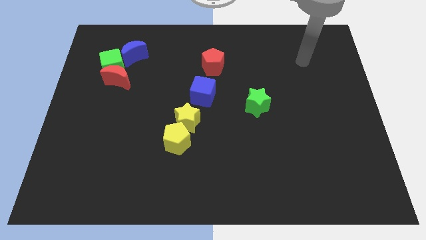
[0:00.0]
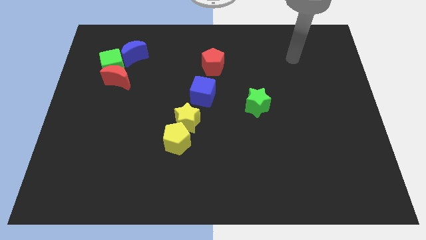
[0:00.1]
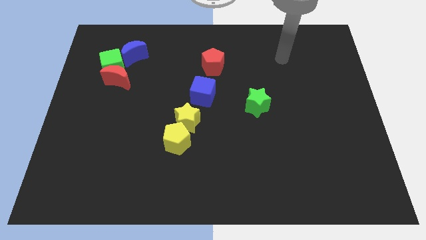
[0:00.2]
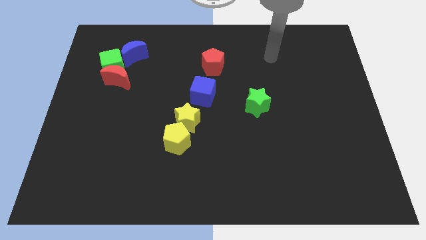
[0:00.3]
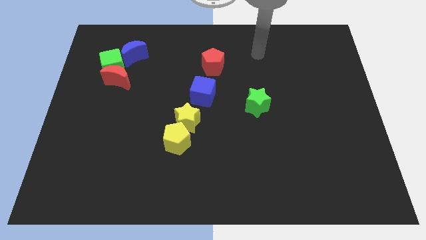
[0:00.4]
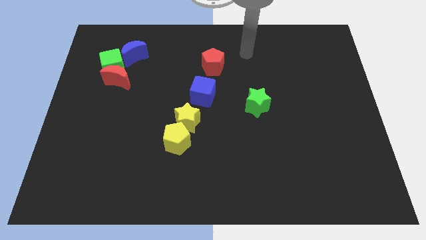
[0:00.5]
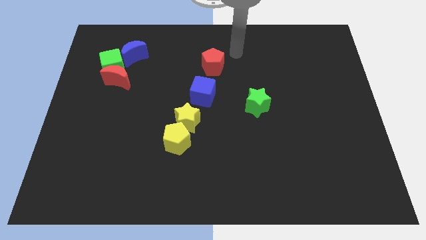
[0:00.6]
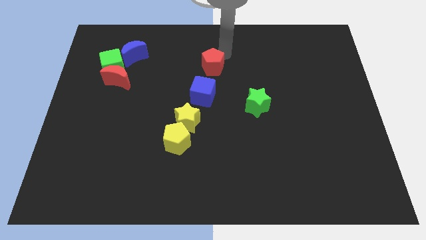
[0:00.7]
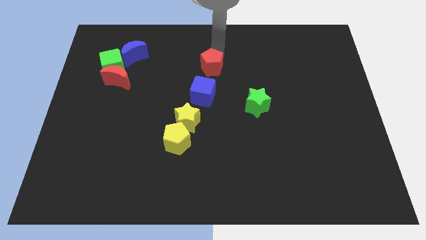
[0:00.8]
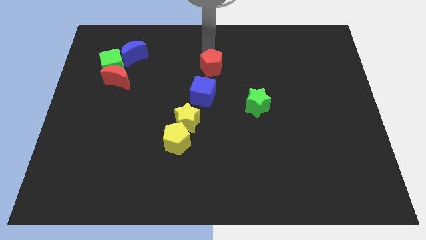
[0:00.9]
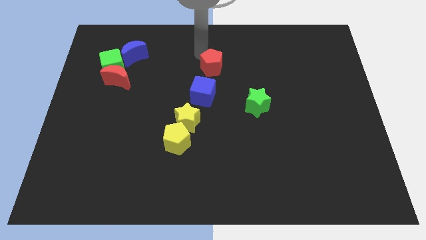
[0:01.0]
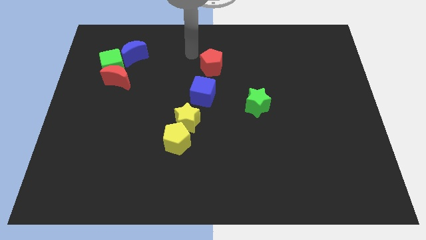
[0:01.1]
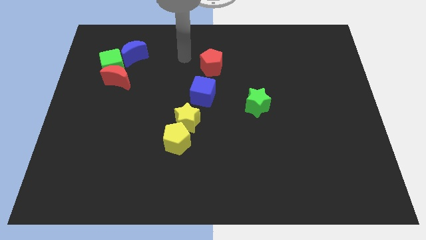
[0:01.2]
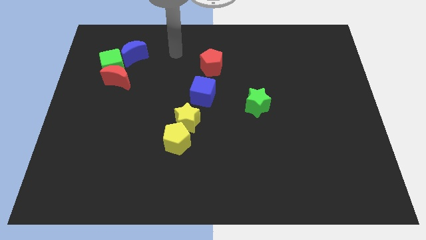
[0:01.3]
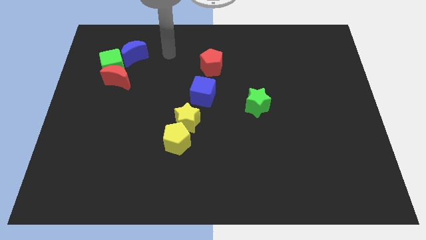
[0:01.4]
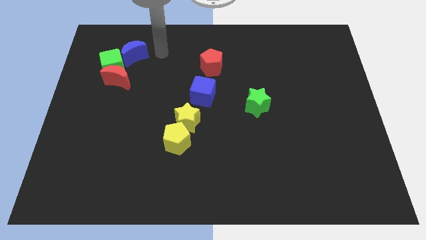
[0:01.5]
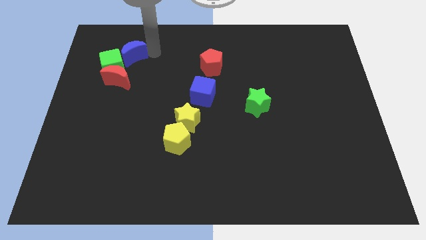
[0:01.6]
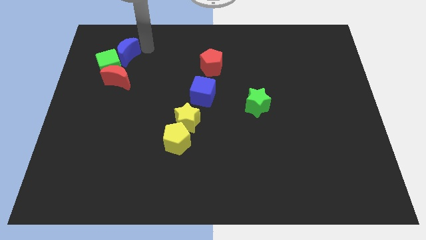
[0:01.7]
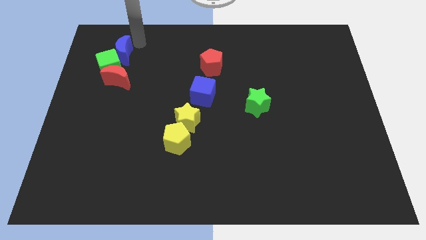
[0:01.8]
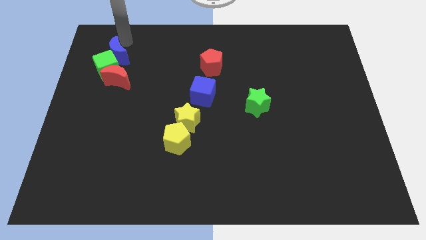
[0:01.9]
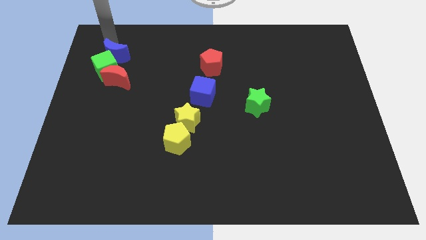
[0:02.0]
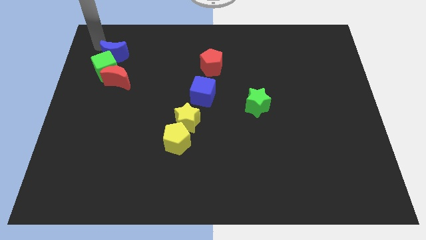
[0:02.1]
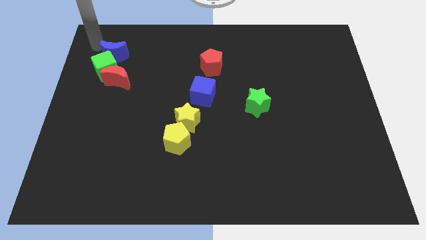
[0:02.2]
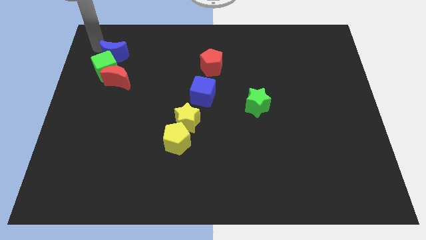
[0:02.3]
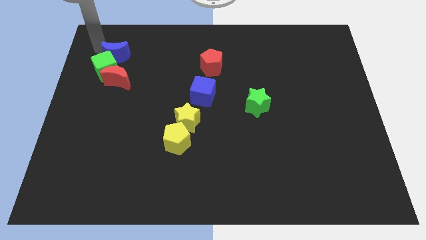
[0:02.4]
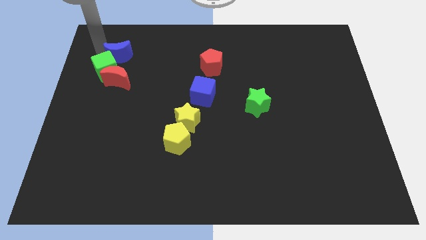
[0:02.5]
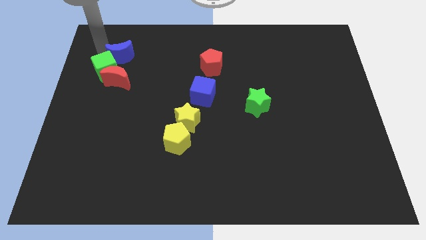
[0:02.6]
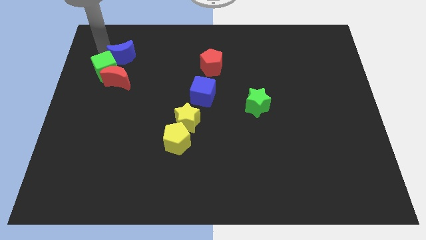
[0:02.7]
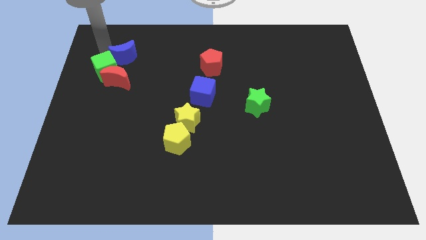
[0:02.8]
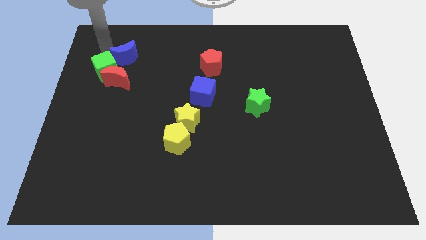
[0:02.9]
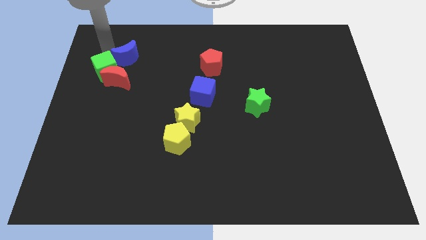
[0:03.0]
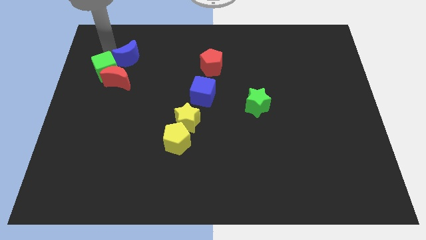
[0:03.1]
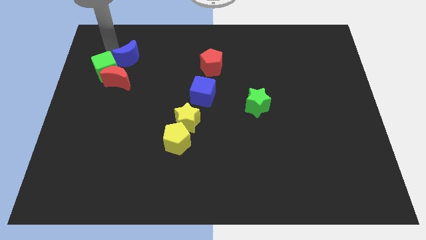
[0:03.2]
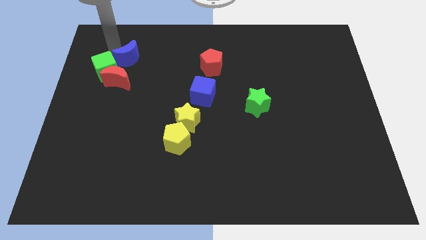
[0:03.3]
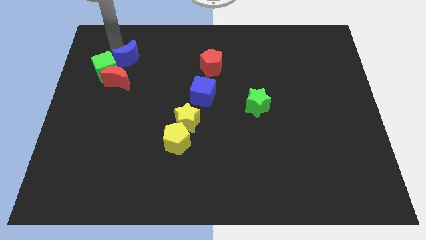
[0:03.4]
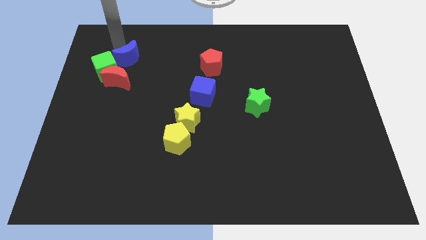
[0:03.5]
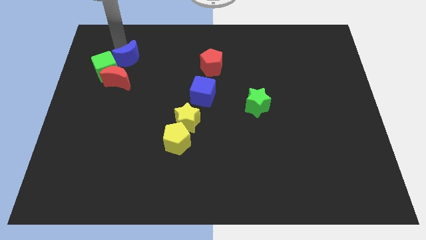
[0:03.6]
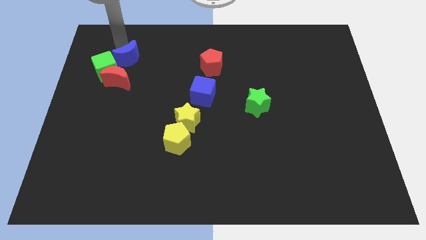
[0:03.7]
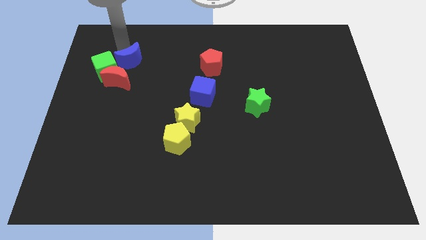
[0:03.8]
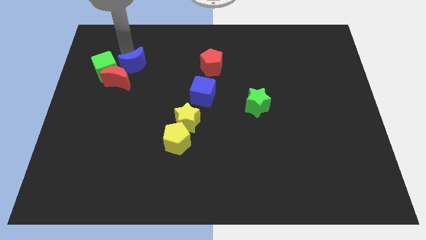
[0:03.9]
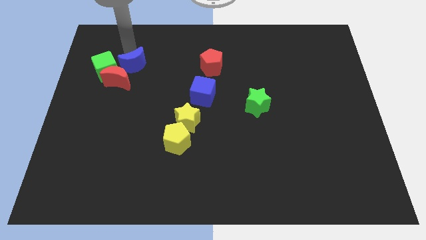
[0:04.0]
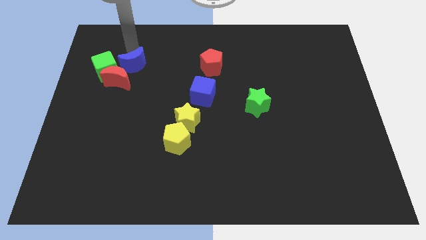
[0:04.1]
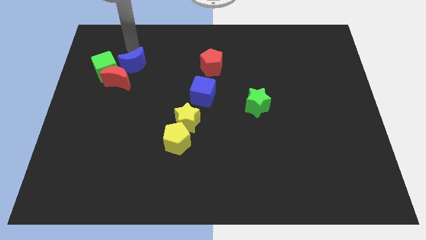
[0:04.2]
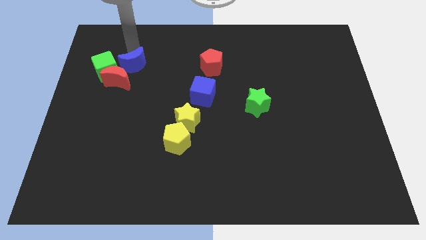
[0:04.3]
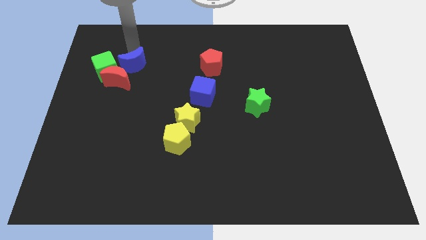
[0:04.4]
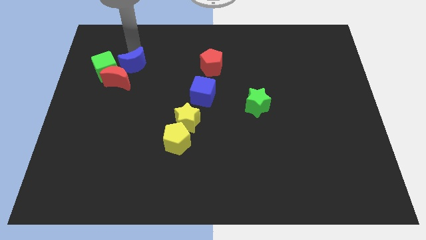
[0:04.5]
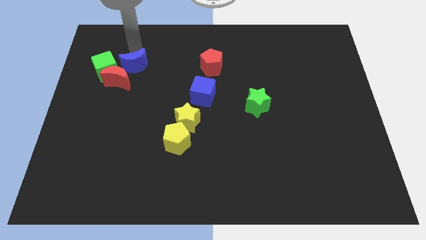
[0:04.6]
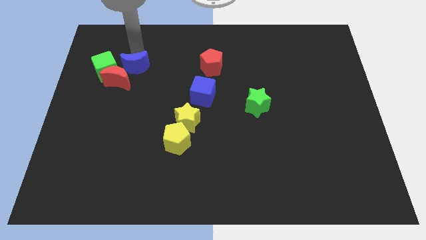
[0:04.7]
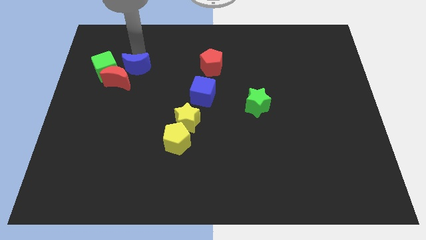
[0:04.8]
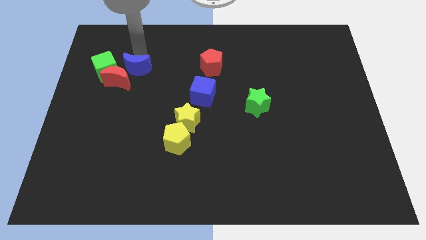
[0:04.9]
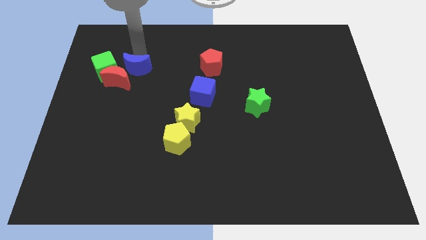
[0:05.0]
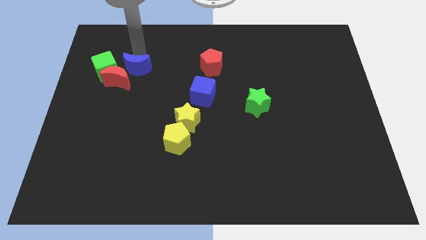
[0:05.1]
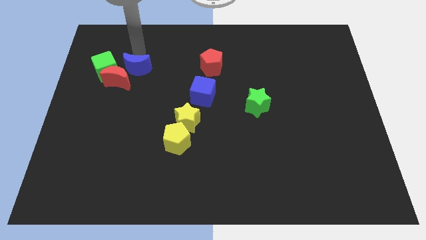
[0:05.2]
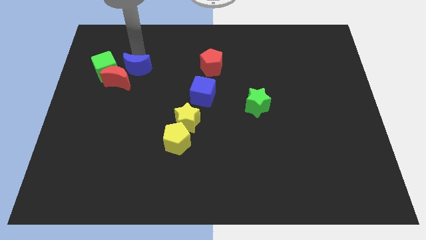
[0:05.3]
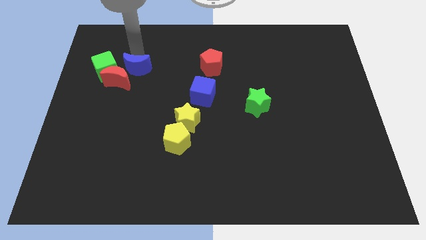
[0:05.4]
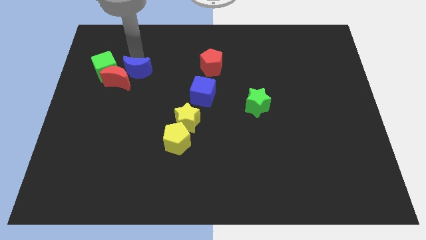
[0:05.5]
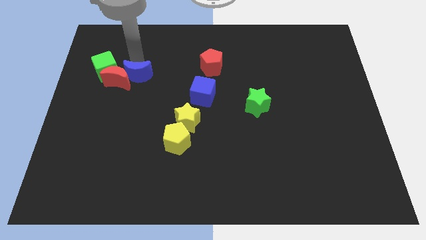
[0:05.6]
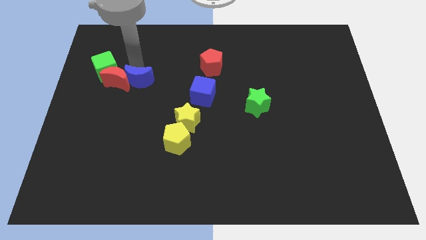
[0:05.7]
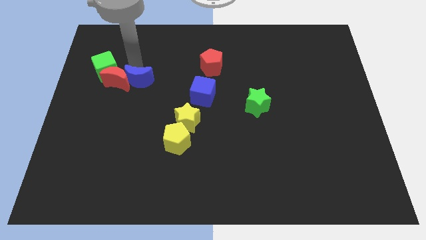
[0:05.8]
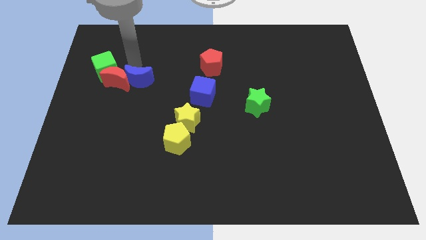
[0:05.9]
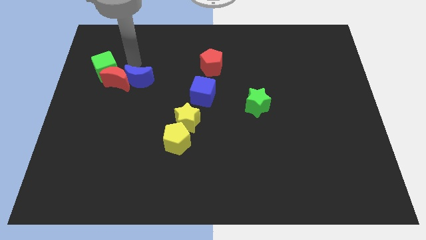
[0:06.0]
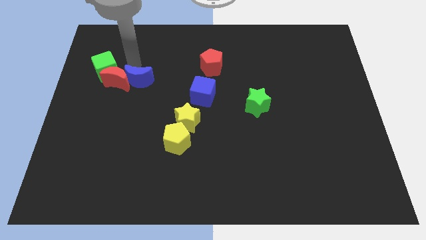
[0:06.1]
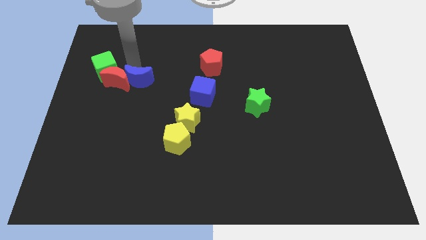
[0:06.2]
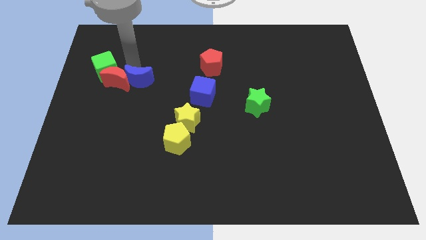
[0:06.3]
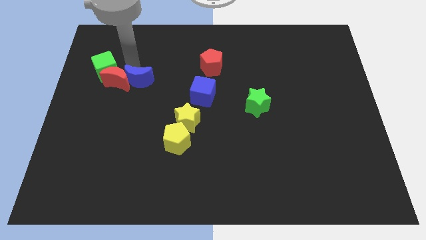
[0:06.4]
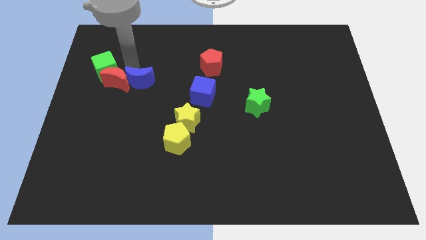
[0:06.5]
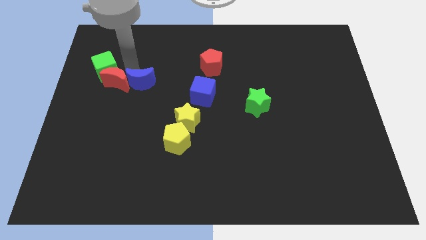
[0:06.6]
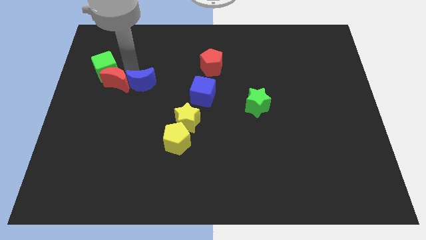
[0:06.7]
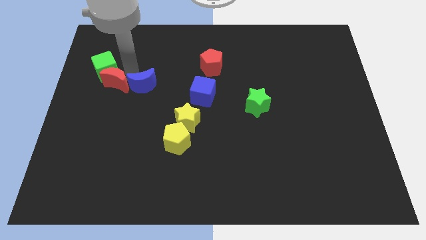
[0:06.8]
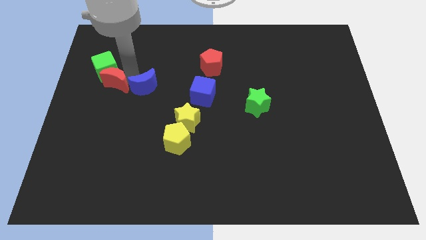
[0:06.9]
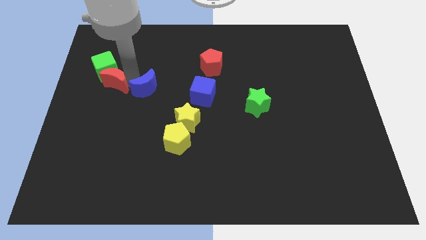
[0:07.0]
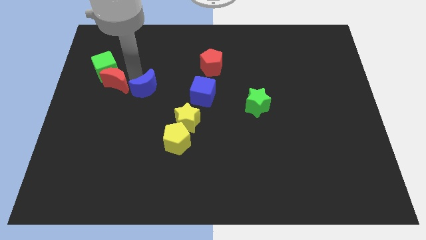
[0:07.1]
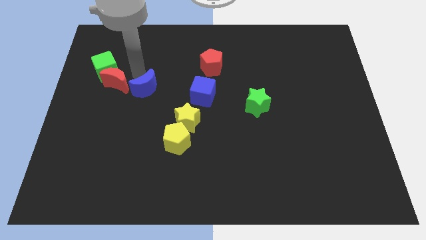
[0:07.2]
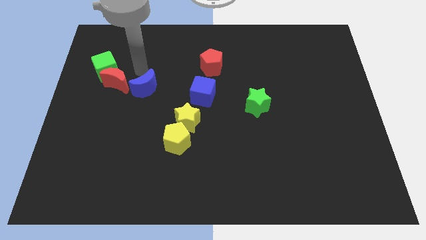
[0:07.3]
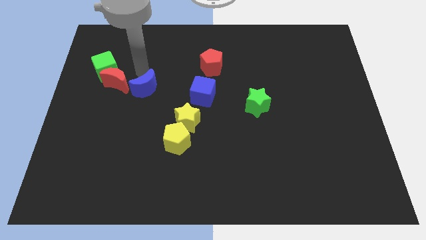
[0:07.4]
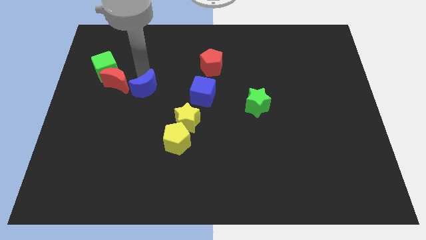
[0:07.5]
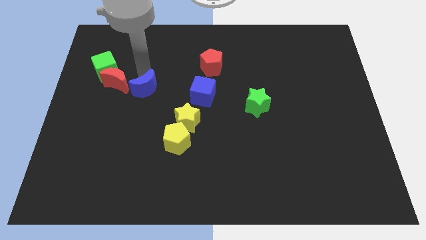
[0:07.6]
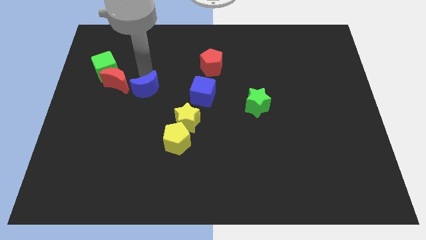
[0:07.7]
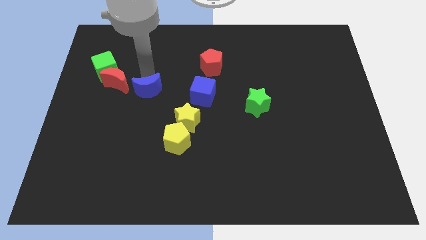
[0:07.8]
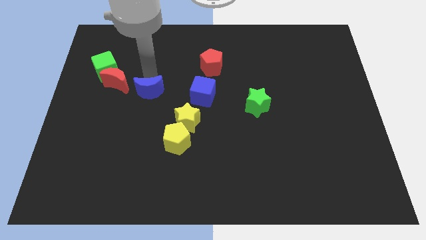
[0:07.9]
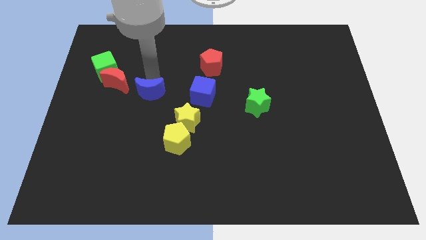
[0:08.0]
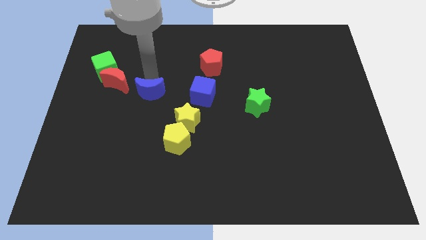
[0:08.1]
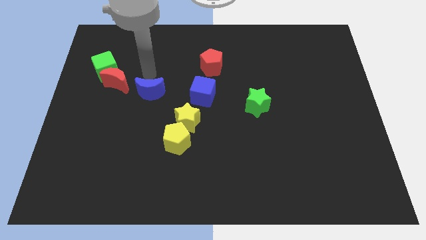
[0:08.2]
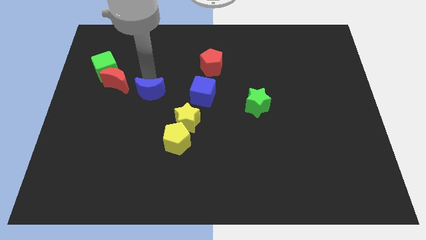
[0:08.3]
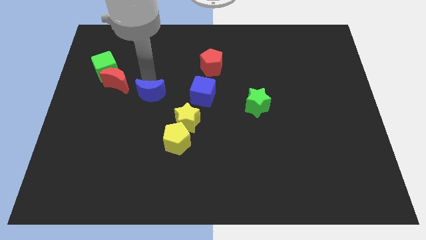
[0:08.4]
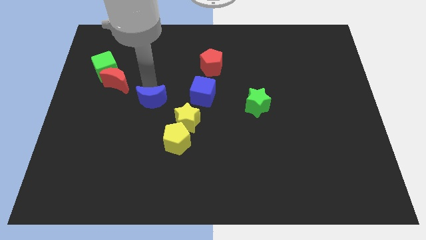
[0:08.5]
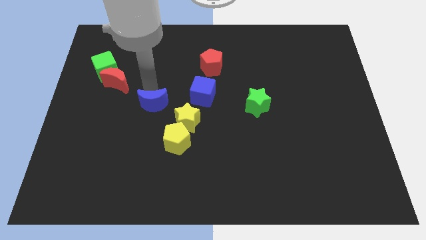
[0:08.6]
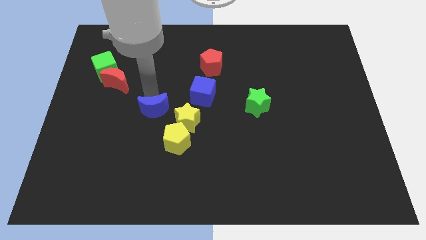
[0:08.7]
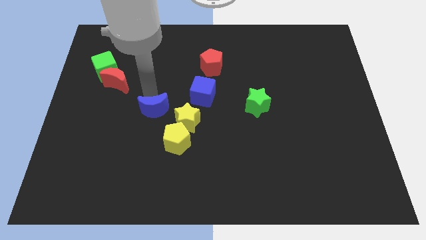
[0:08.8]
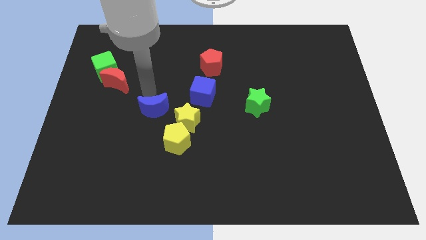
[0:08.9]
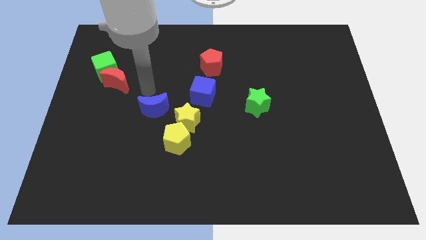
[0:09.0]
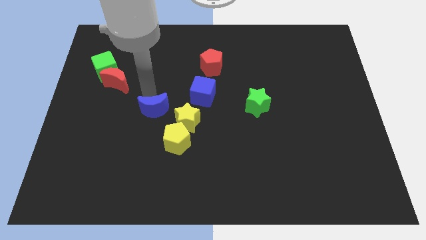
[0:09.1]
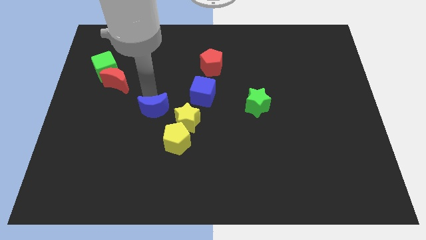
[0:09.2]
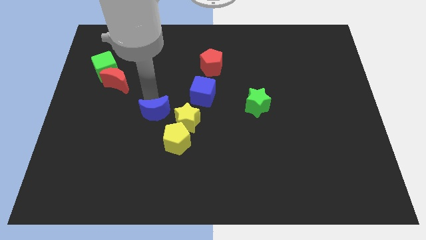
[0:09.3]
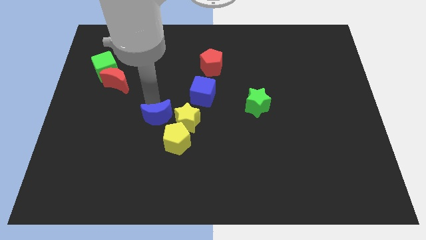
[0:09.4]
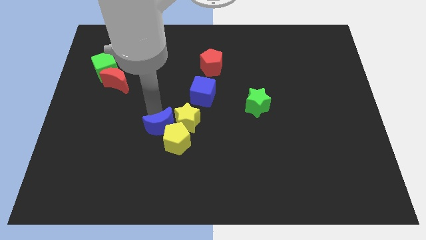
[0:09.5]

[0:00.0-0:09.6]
slide the blue moon close to the yellow pentagon
